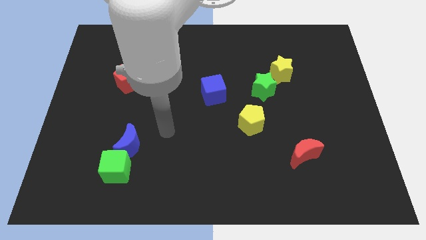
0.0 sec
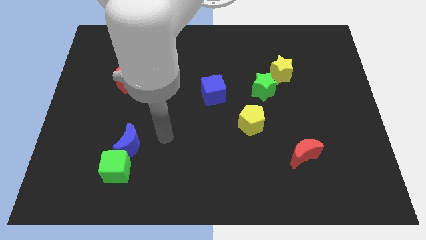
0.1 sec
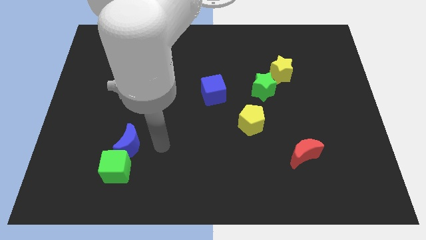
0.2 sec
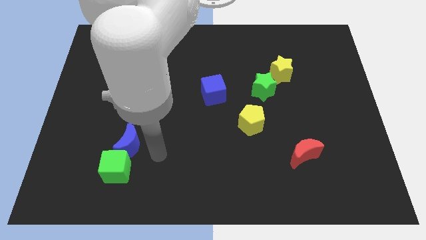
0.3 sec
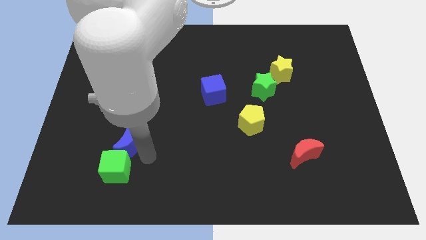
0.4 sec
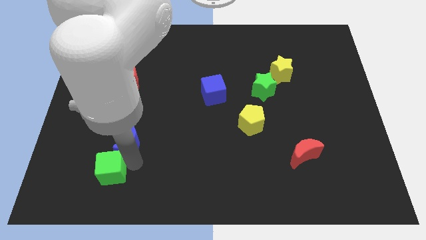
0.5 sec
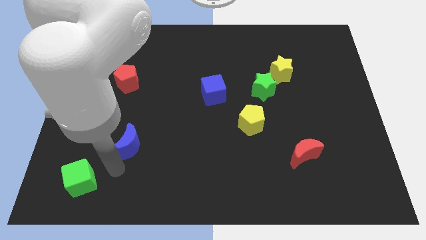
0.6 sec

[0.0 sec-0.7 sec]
separate the blue moon from the green cube

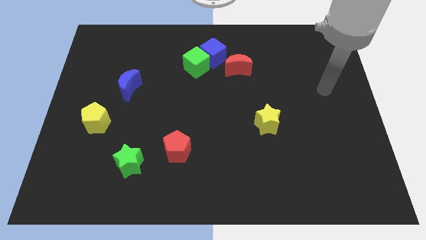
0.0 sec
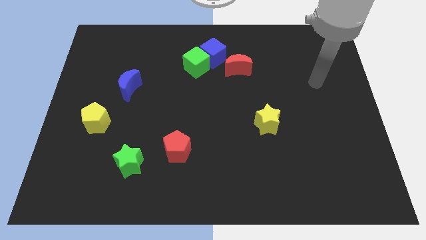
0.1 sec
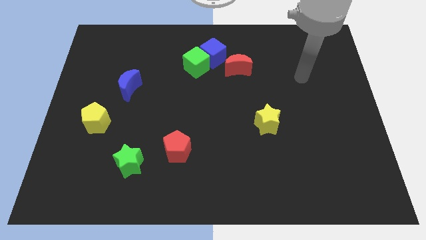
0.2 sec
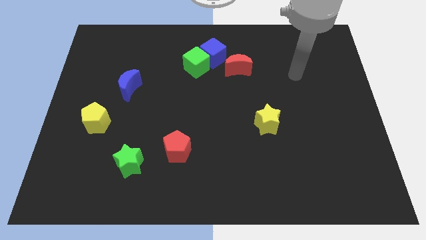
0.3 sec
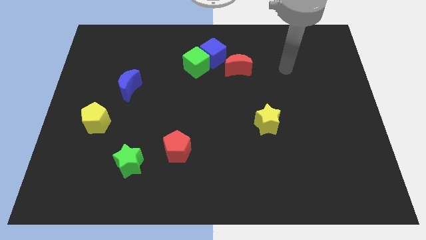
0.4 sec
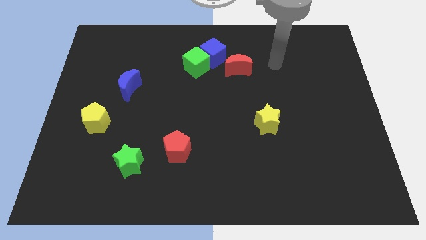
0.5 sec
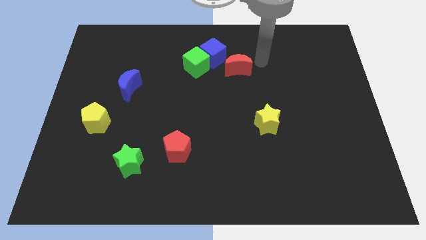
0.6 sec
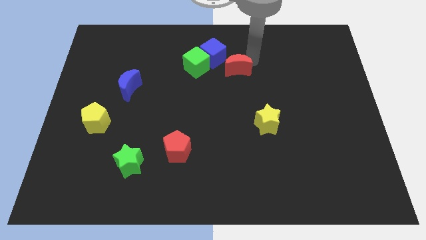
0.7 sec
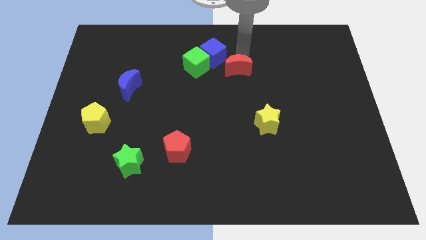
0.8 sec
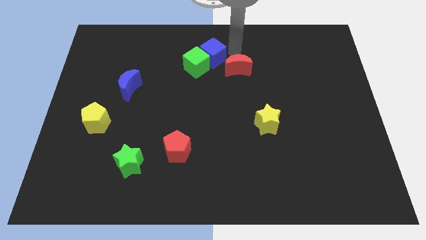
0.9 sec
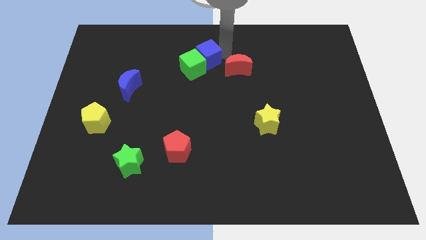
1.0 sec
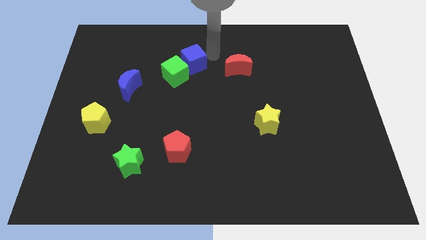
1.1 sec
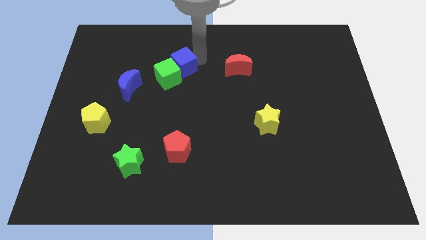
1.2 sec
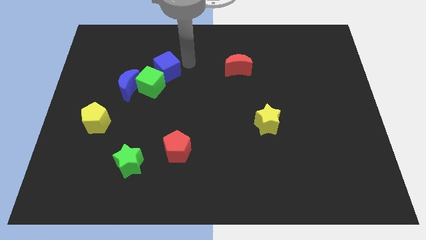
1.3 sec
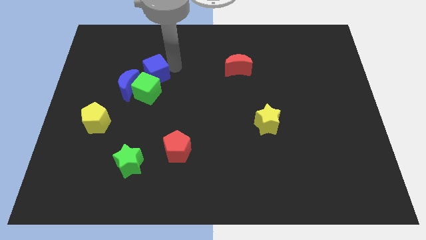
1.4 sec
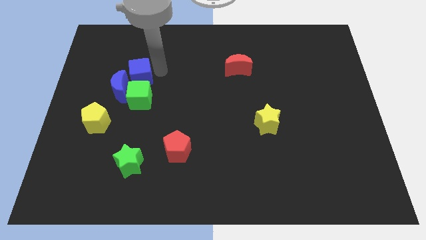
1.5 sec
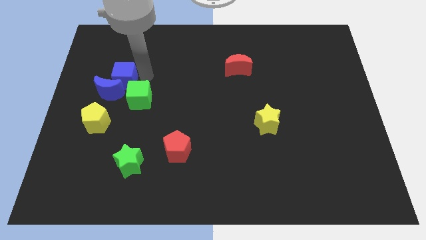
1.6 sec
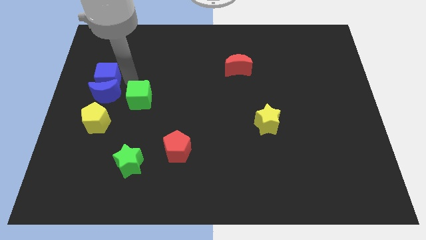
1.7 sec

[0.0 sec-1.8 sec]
separate the green cube from the blue cube

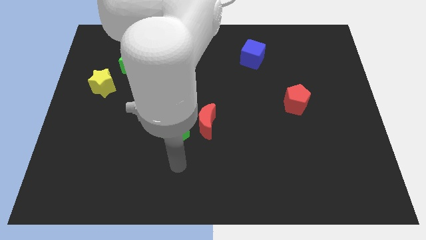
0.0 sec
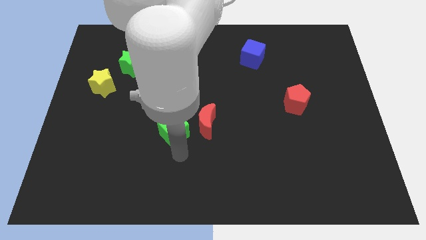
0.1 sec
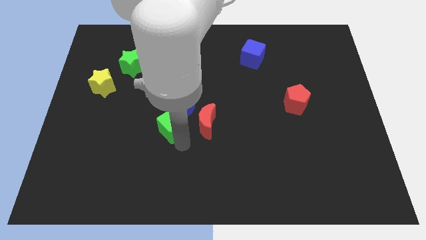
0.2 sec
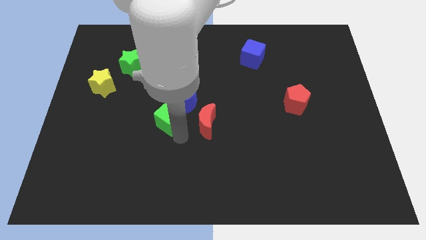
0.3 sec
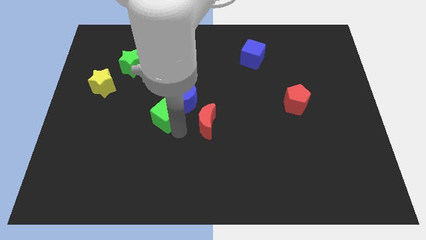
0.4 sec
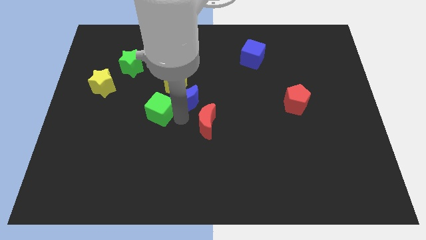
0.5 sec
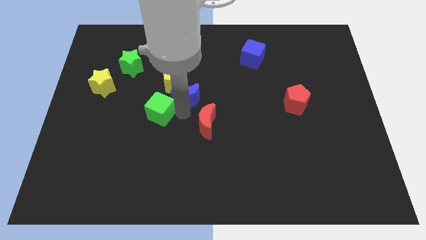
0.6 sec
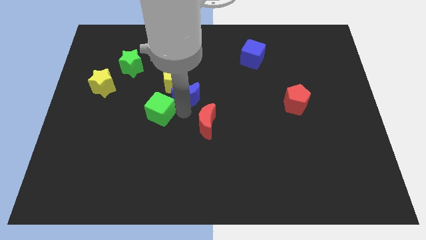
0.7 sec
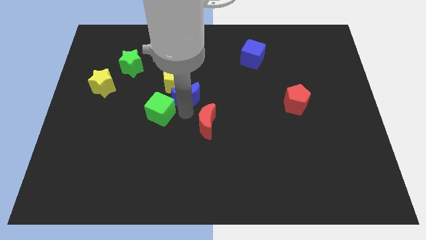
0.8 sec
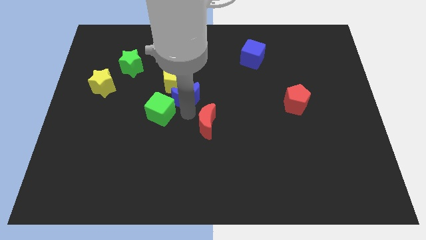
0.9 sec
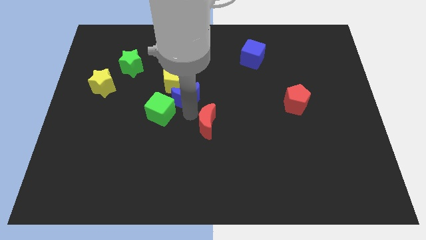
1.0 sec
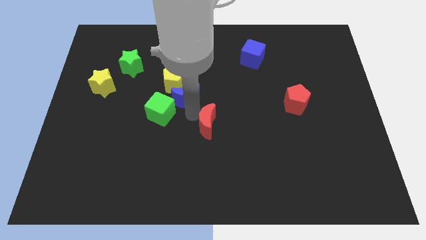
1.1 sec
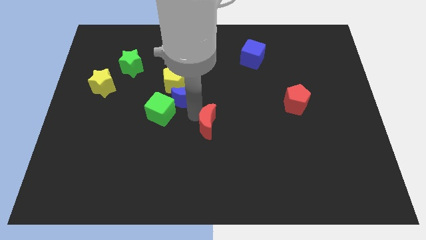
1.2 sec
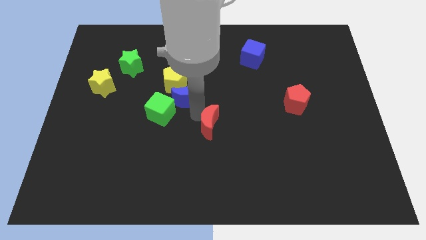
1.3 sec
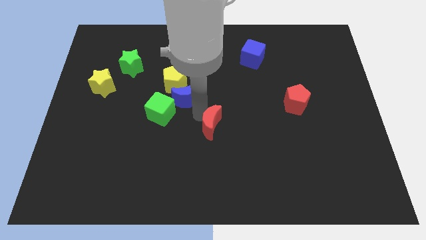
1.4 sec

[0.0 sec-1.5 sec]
separate the red moon from the blue moon and green cube

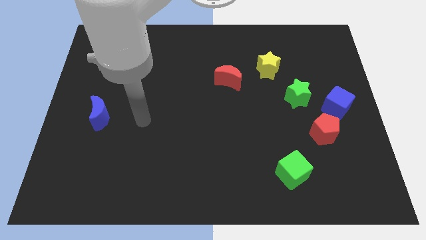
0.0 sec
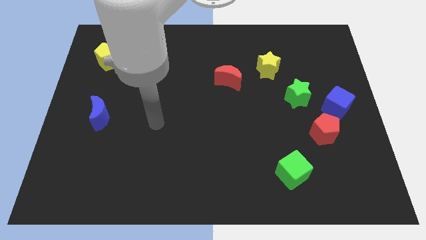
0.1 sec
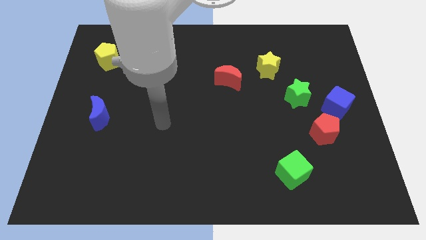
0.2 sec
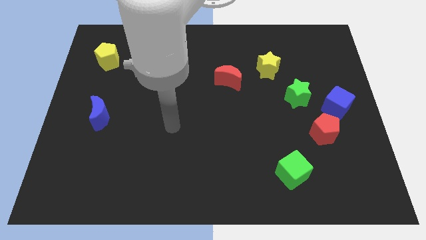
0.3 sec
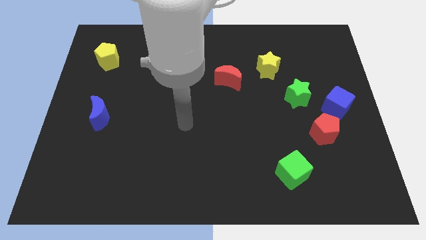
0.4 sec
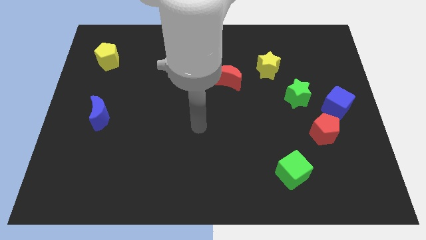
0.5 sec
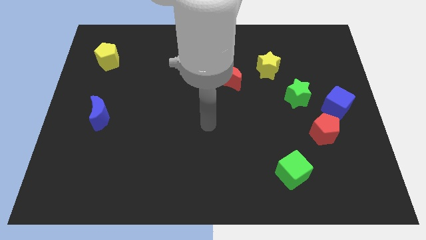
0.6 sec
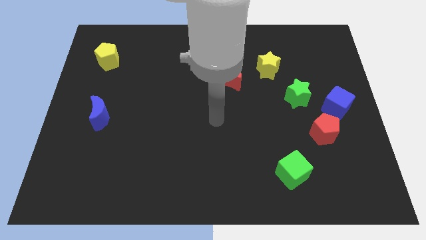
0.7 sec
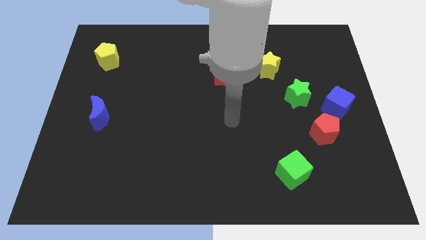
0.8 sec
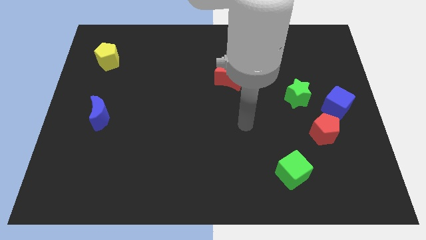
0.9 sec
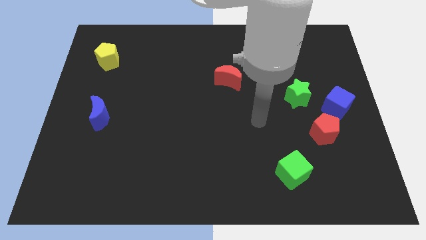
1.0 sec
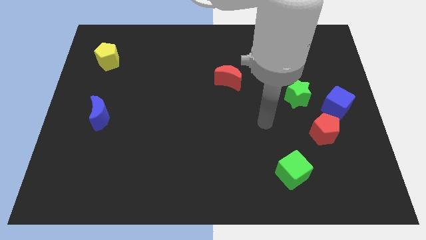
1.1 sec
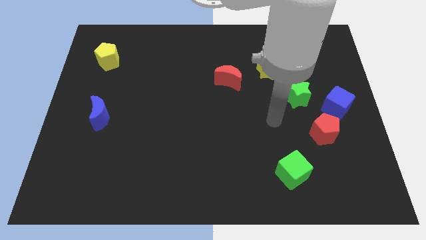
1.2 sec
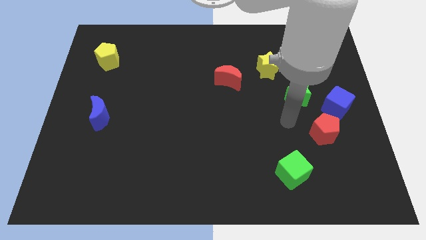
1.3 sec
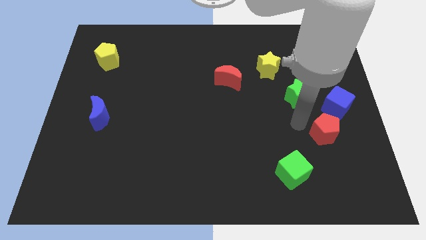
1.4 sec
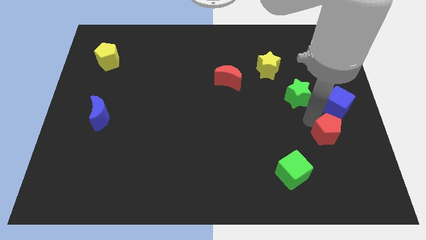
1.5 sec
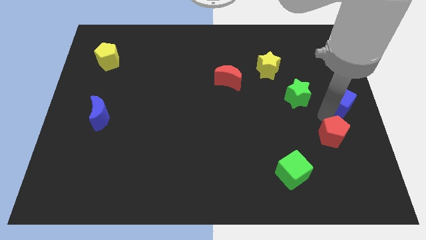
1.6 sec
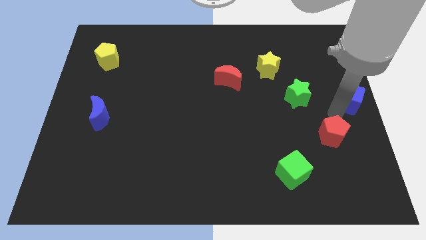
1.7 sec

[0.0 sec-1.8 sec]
pull the red pentagon apart from the blue cube

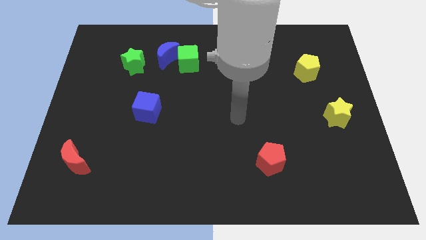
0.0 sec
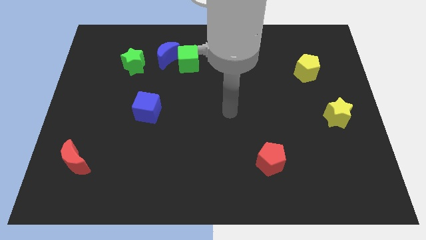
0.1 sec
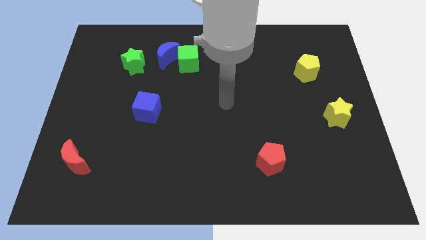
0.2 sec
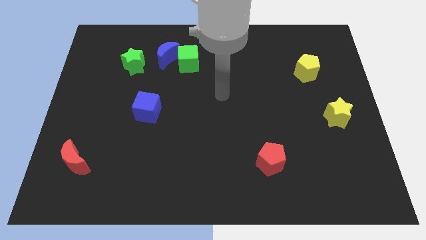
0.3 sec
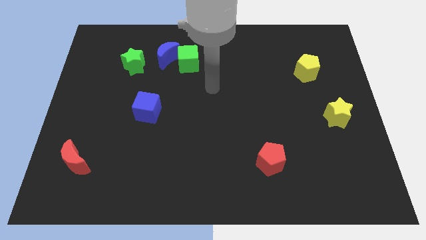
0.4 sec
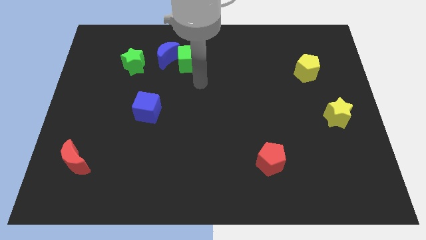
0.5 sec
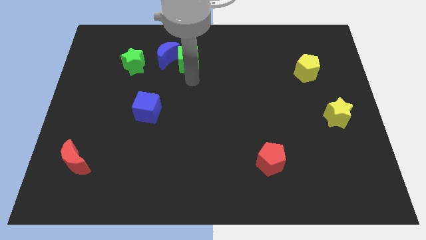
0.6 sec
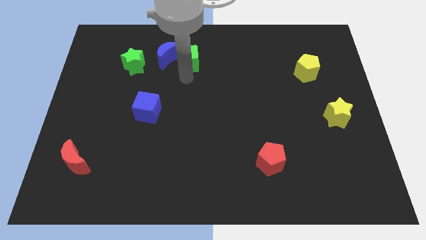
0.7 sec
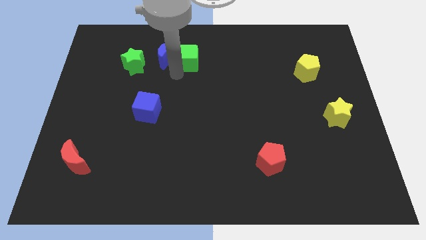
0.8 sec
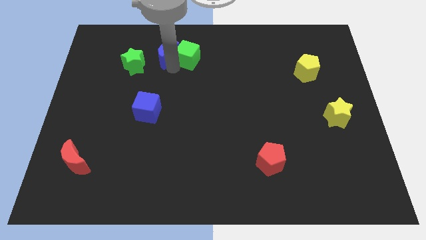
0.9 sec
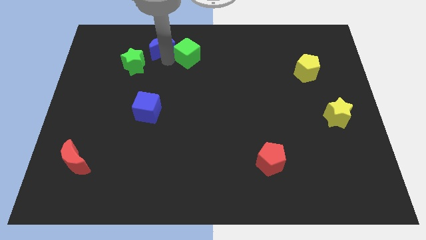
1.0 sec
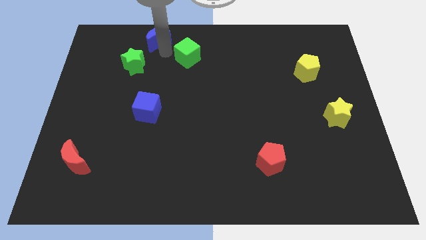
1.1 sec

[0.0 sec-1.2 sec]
move the green cube away from the blue moon

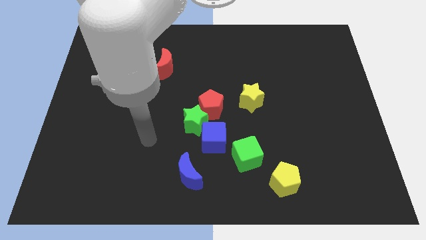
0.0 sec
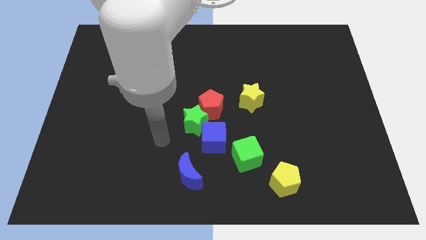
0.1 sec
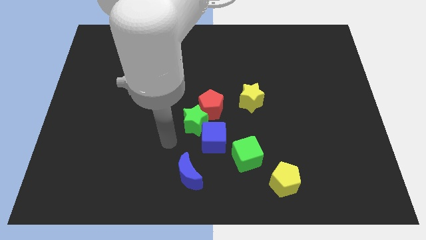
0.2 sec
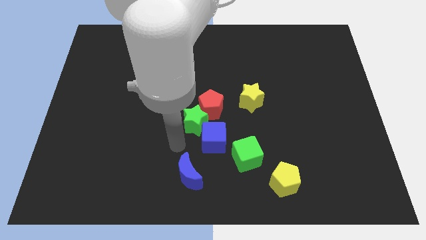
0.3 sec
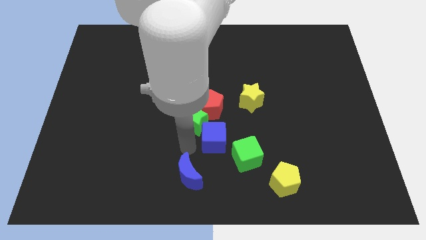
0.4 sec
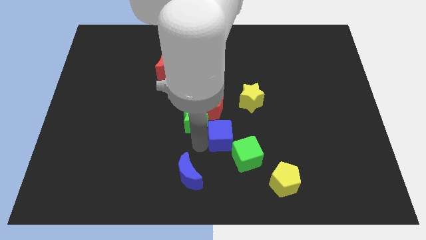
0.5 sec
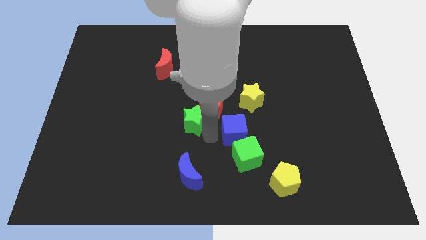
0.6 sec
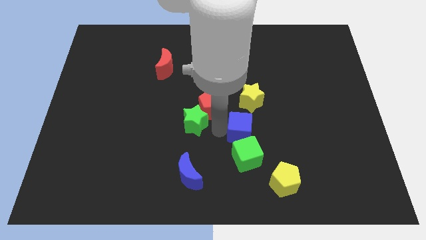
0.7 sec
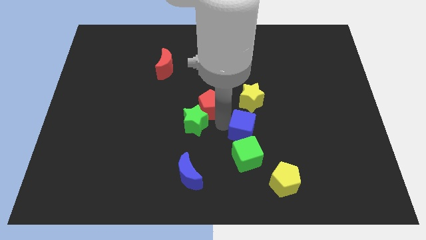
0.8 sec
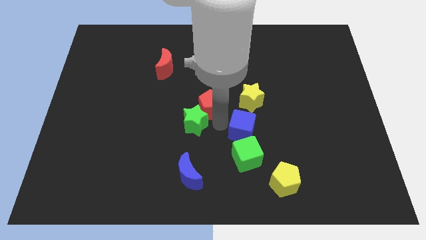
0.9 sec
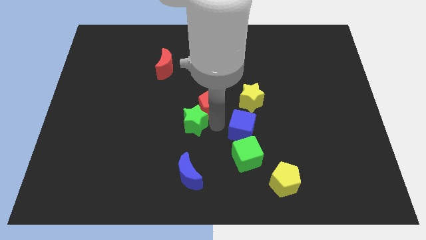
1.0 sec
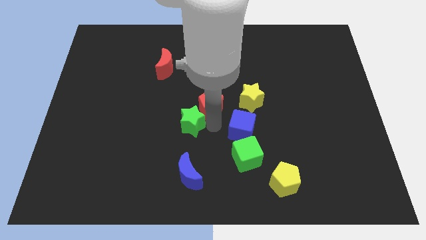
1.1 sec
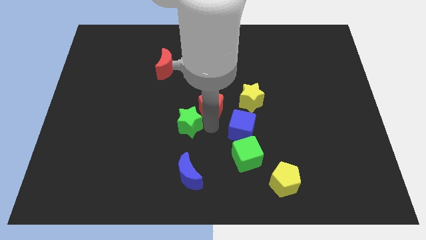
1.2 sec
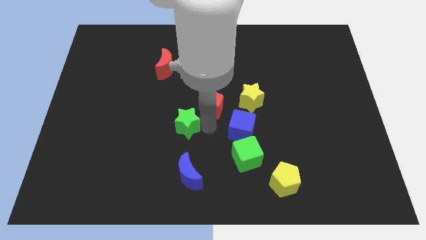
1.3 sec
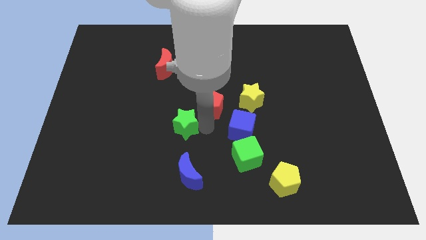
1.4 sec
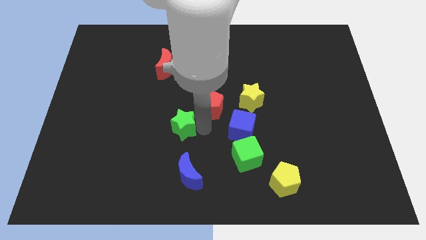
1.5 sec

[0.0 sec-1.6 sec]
pull the green star apart from the red pentagon and blue cube

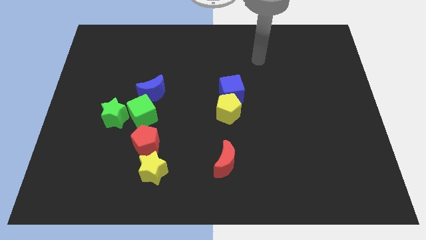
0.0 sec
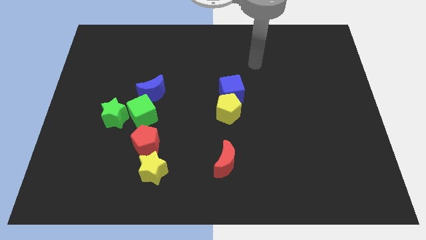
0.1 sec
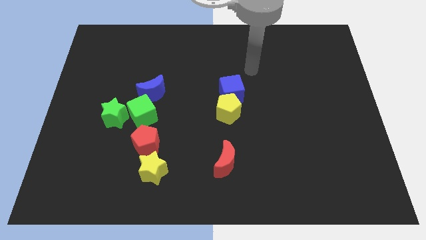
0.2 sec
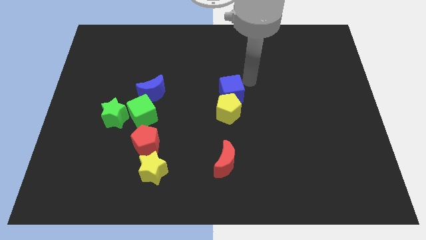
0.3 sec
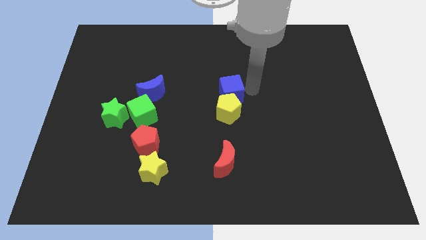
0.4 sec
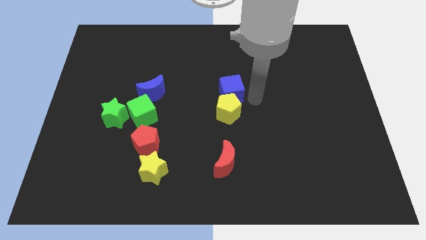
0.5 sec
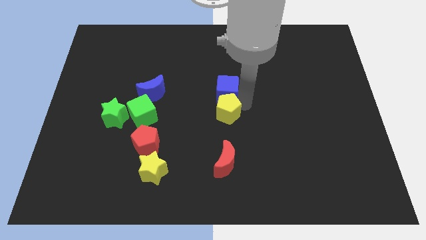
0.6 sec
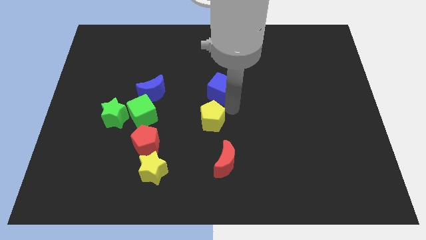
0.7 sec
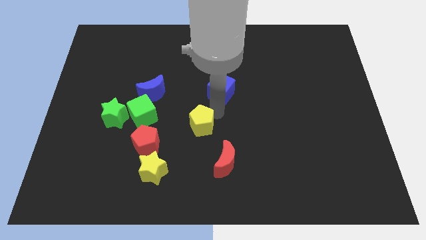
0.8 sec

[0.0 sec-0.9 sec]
move the blue cube away from the yellow pentagon
